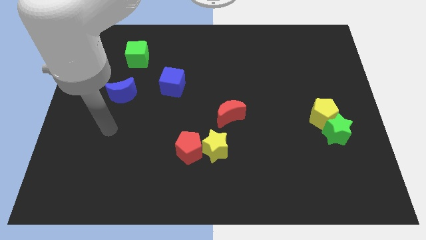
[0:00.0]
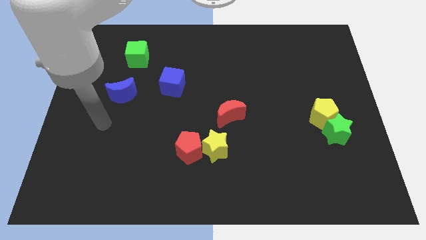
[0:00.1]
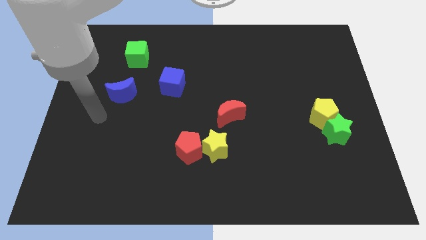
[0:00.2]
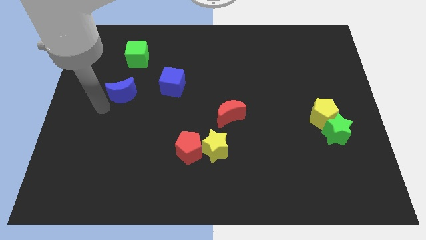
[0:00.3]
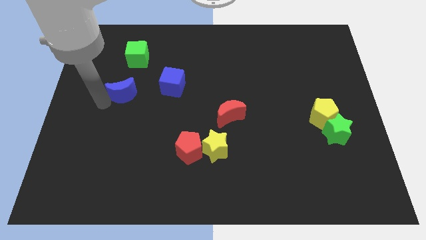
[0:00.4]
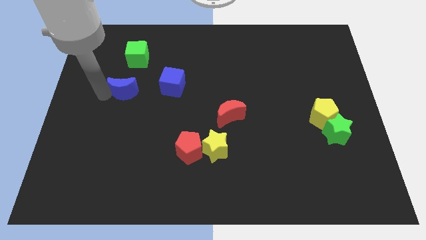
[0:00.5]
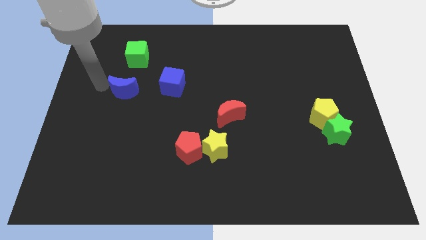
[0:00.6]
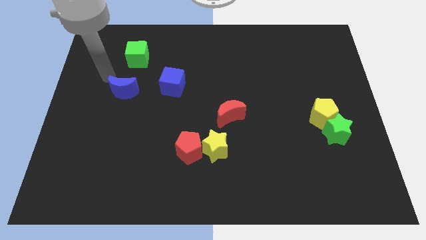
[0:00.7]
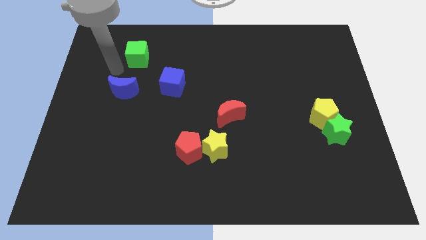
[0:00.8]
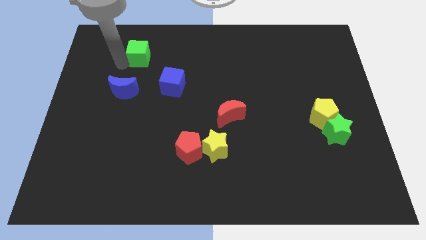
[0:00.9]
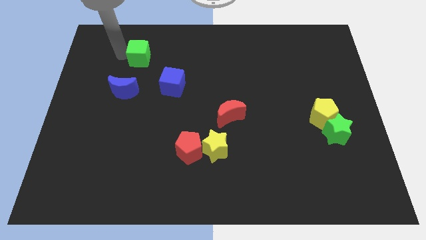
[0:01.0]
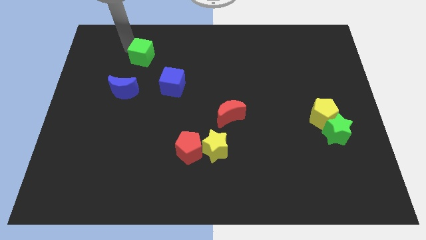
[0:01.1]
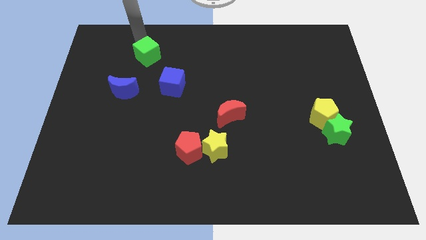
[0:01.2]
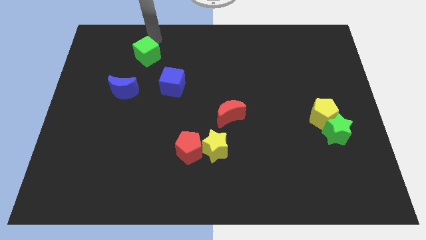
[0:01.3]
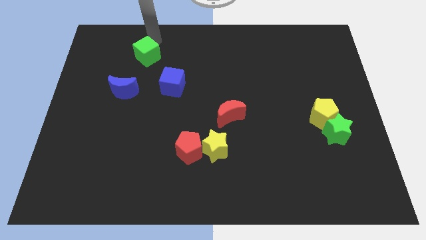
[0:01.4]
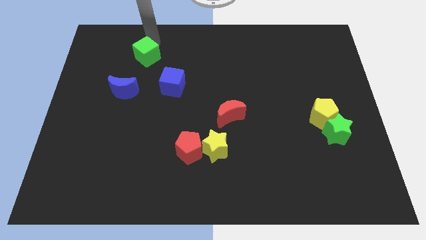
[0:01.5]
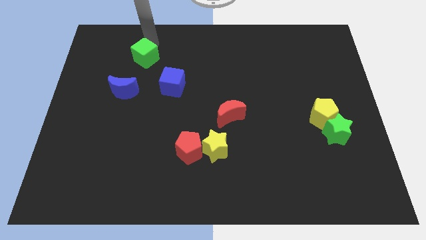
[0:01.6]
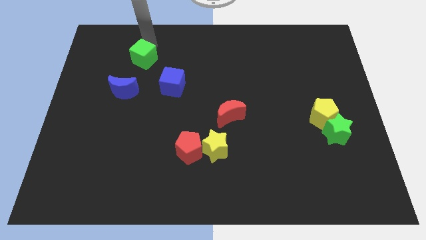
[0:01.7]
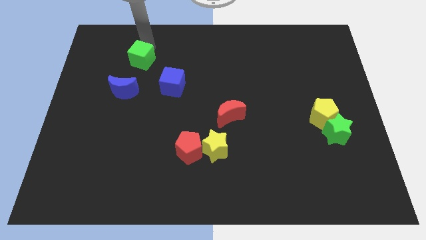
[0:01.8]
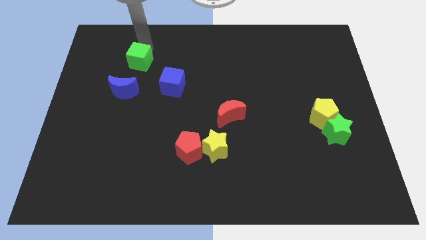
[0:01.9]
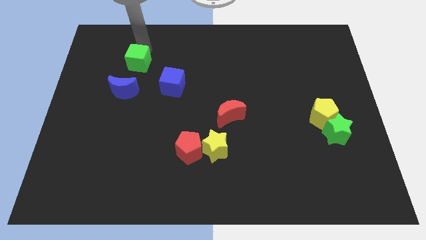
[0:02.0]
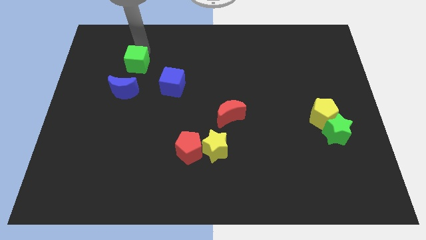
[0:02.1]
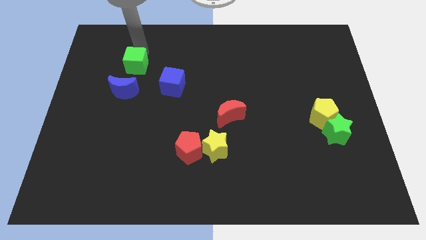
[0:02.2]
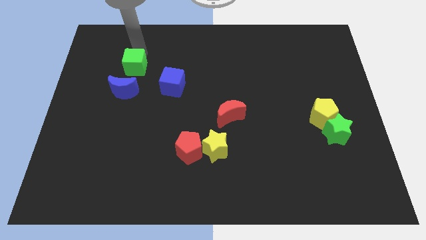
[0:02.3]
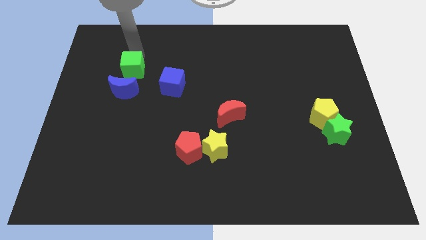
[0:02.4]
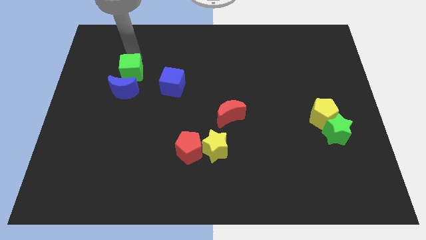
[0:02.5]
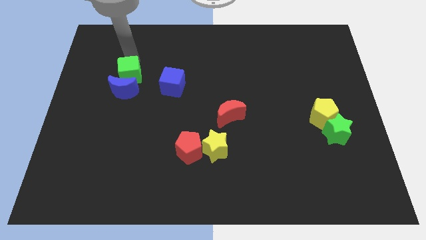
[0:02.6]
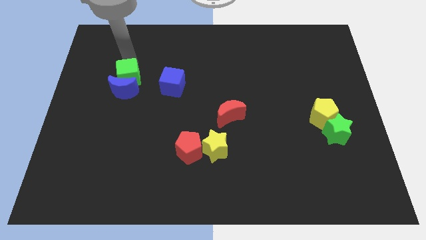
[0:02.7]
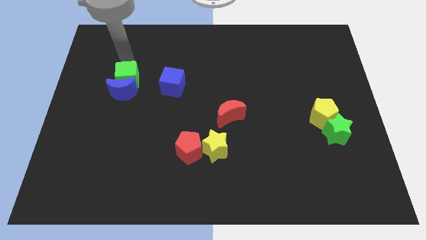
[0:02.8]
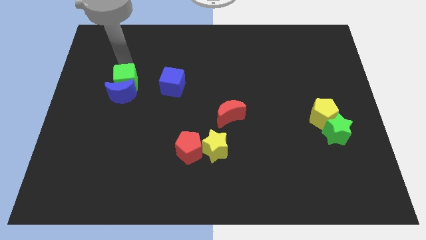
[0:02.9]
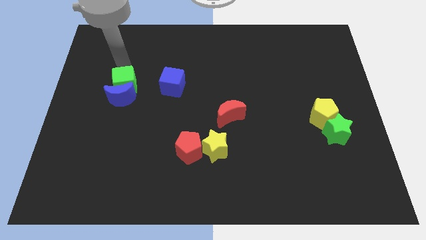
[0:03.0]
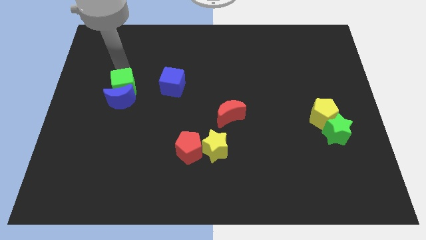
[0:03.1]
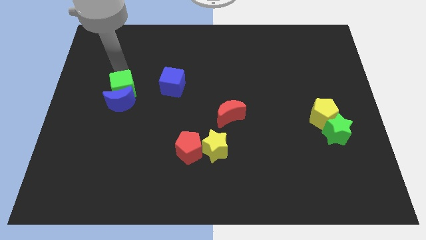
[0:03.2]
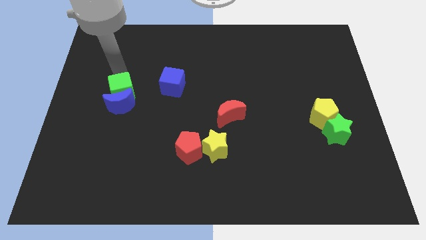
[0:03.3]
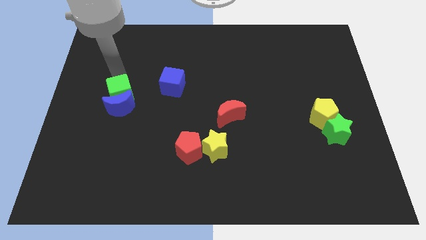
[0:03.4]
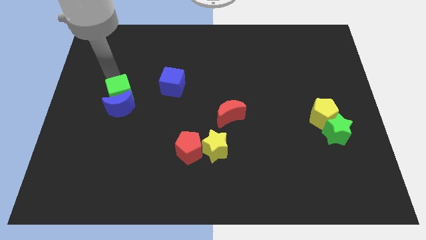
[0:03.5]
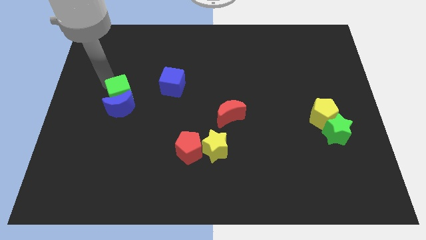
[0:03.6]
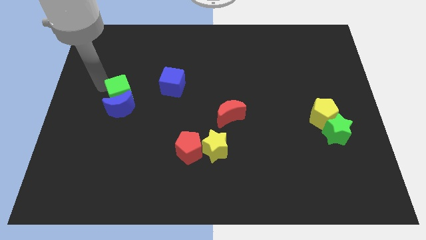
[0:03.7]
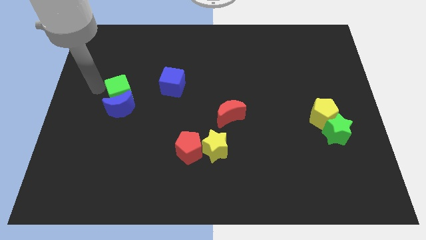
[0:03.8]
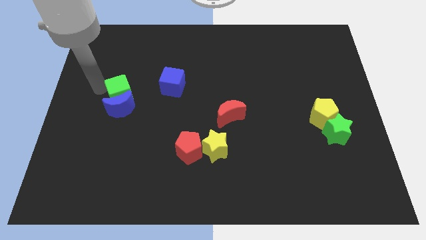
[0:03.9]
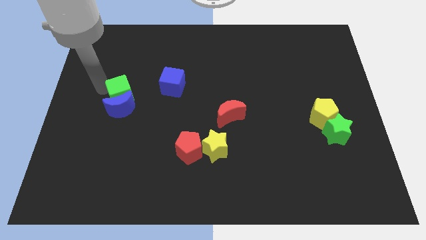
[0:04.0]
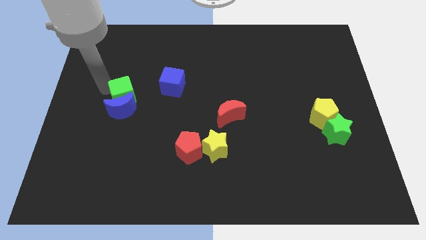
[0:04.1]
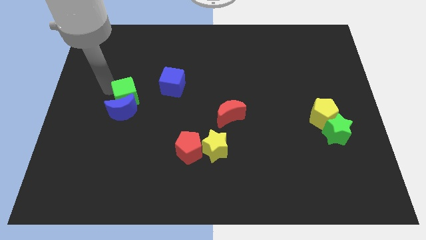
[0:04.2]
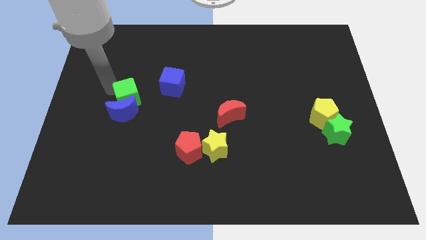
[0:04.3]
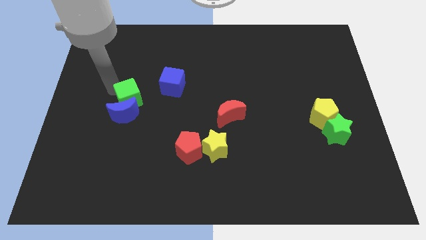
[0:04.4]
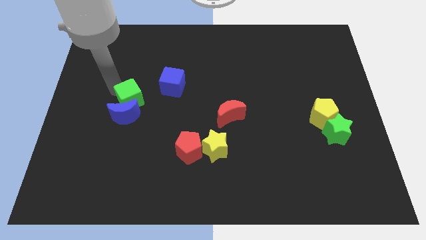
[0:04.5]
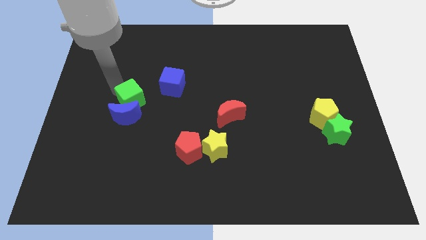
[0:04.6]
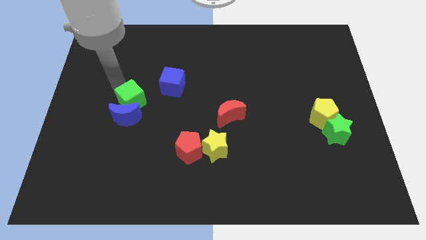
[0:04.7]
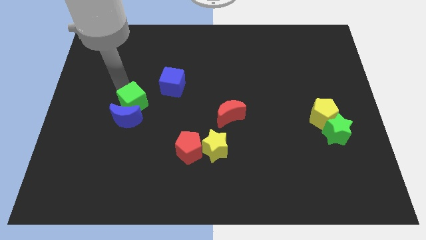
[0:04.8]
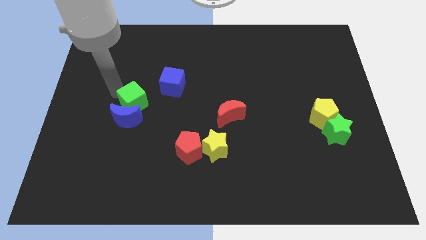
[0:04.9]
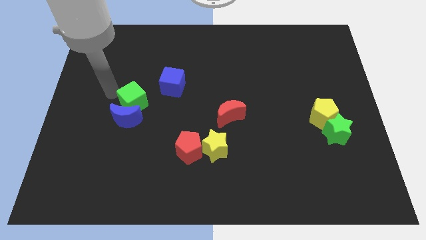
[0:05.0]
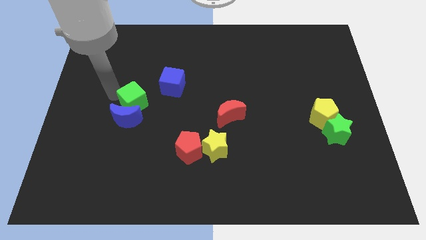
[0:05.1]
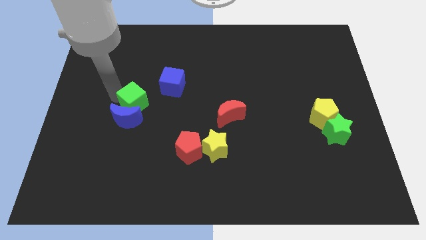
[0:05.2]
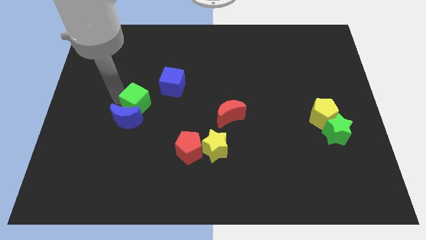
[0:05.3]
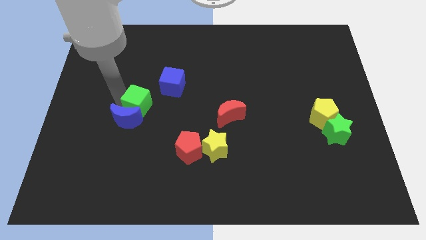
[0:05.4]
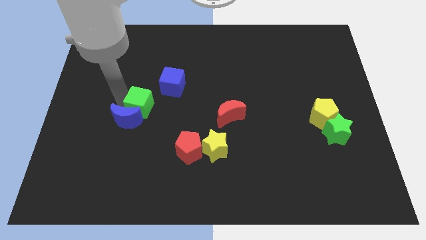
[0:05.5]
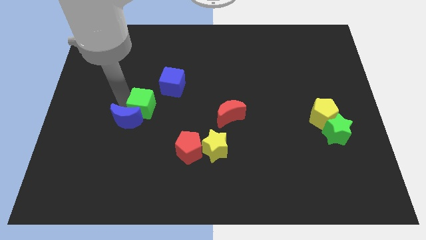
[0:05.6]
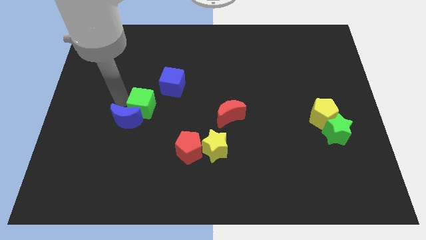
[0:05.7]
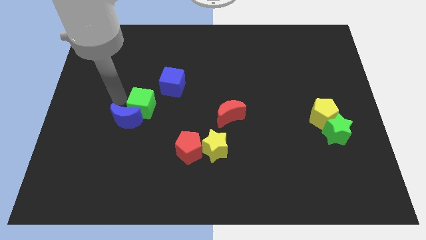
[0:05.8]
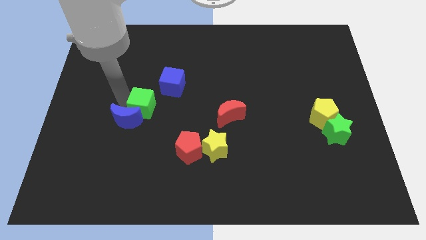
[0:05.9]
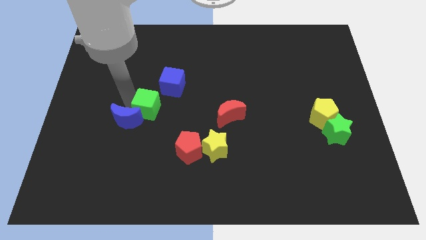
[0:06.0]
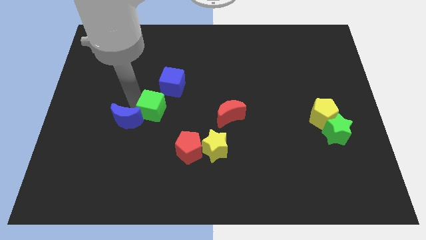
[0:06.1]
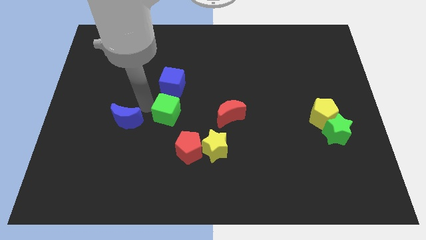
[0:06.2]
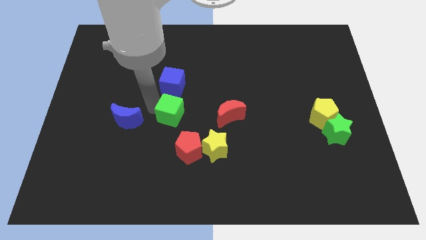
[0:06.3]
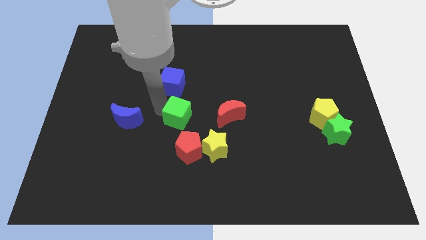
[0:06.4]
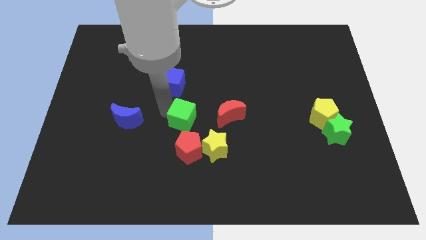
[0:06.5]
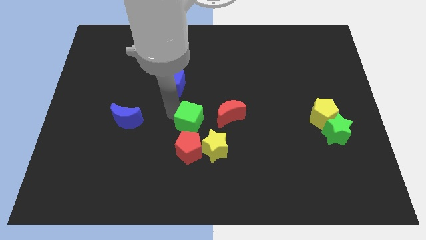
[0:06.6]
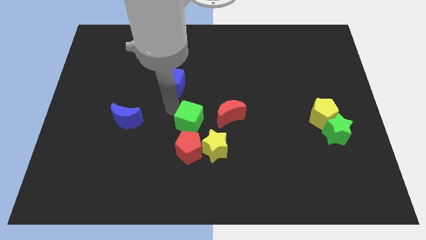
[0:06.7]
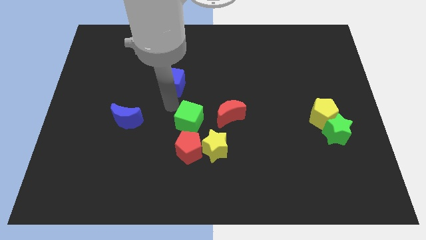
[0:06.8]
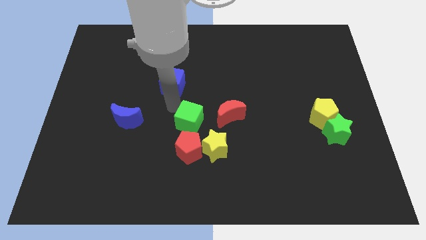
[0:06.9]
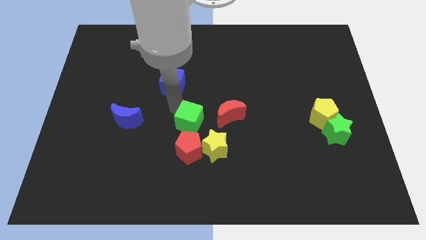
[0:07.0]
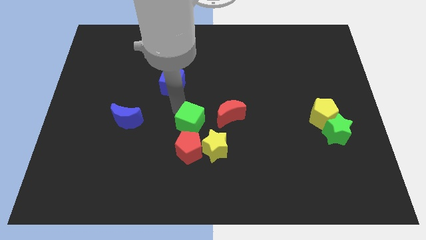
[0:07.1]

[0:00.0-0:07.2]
put the green cube to the bottom left side of the red moon

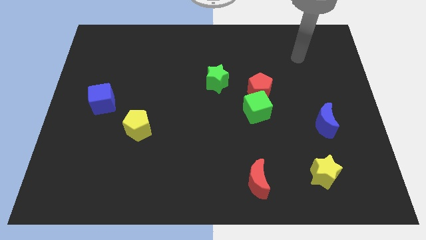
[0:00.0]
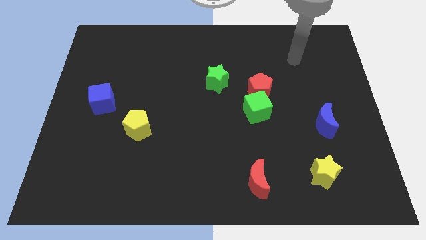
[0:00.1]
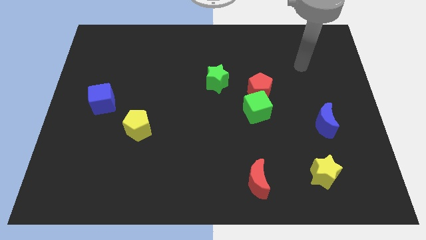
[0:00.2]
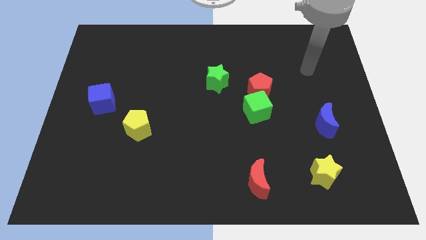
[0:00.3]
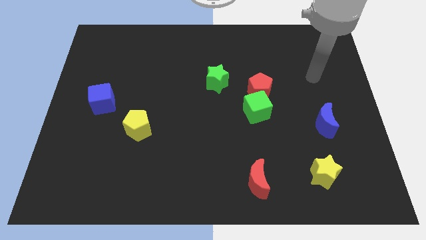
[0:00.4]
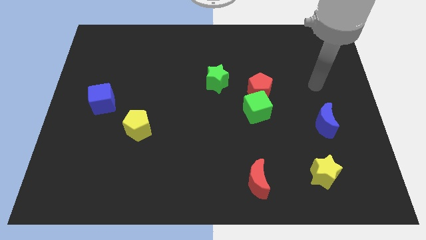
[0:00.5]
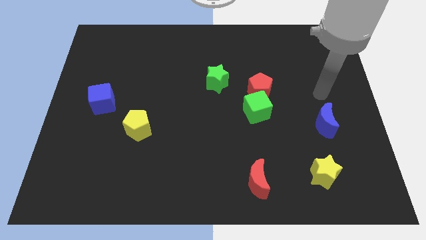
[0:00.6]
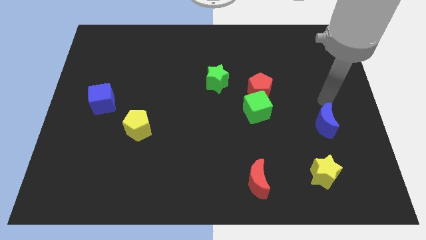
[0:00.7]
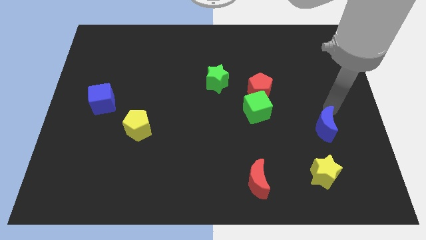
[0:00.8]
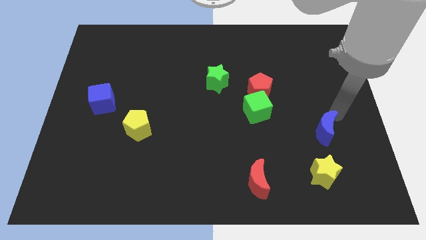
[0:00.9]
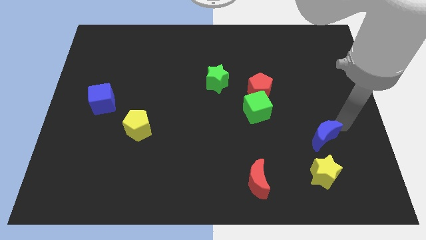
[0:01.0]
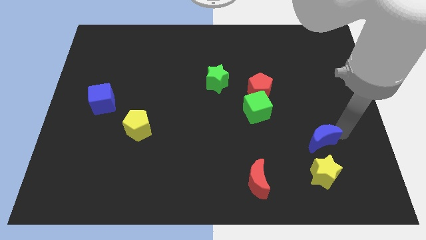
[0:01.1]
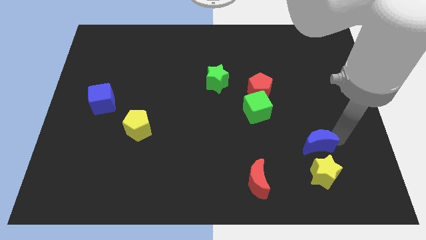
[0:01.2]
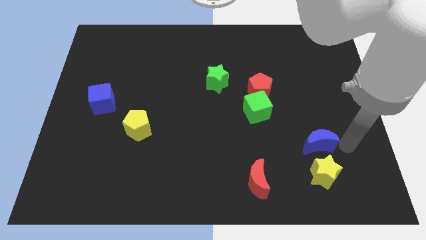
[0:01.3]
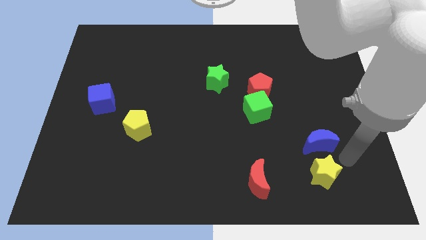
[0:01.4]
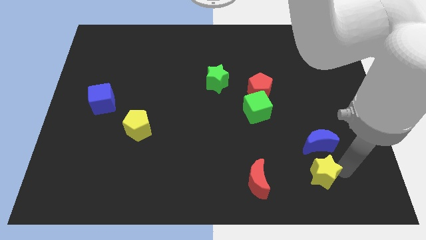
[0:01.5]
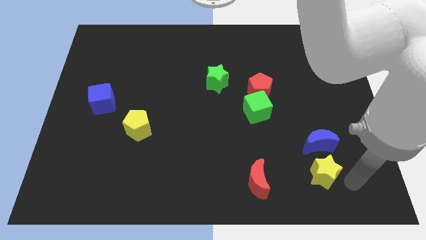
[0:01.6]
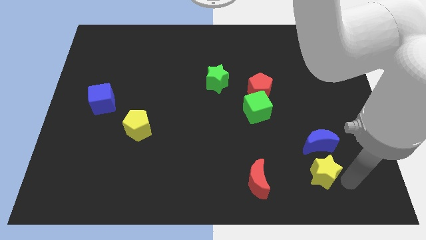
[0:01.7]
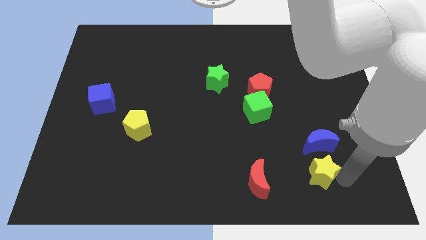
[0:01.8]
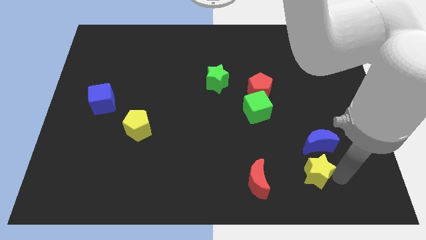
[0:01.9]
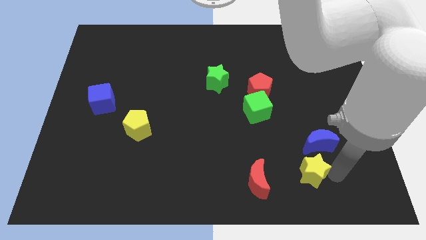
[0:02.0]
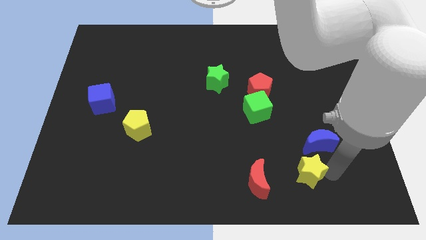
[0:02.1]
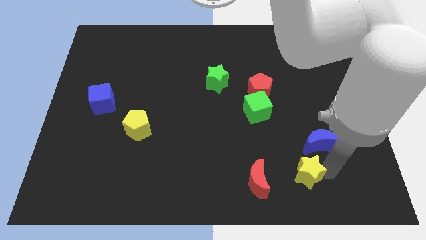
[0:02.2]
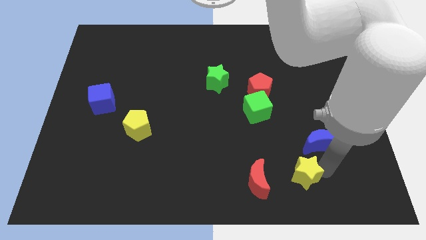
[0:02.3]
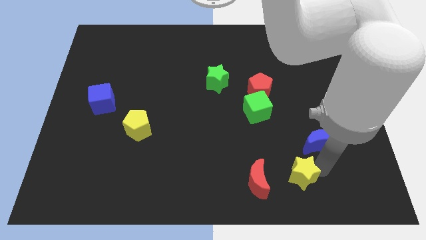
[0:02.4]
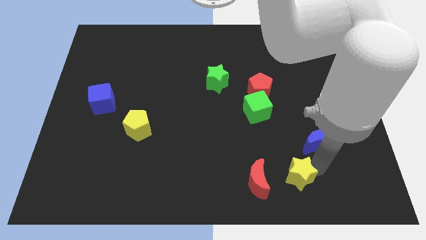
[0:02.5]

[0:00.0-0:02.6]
move the yellow star diagonally up and to the right of the red moon
